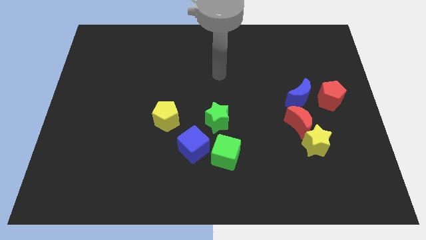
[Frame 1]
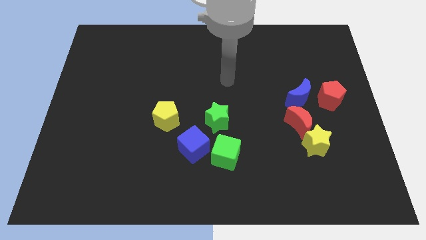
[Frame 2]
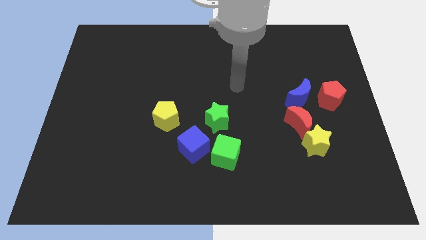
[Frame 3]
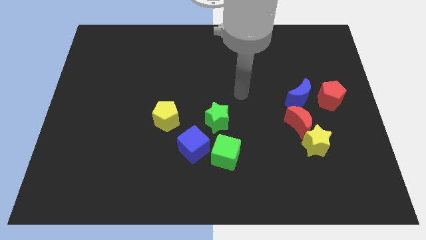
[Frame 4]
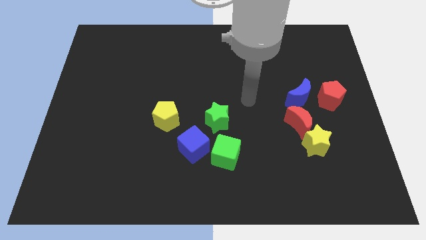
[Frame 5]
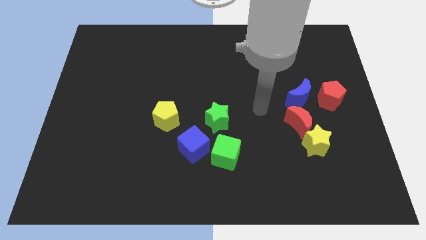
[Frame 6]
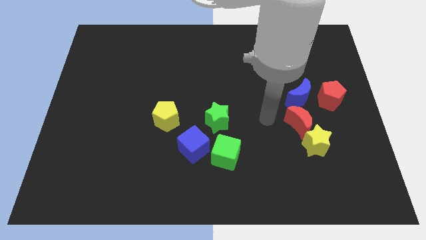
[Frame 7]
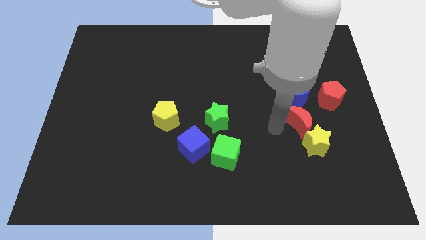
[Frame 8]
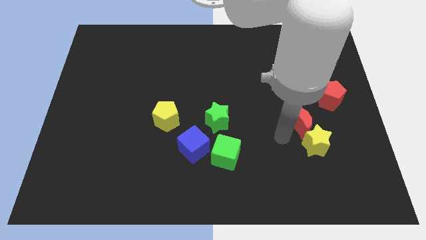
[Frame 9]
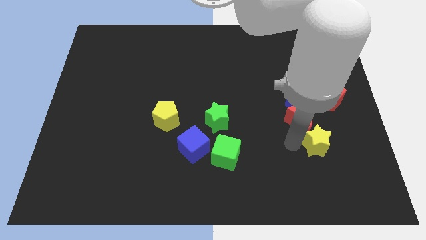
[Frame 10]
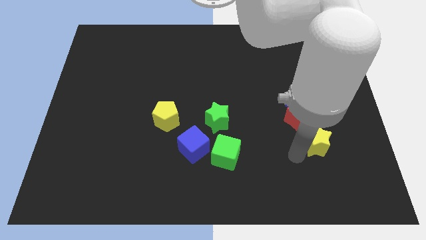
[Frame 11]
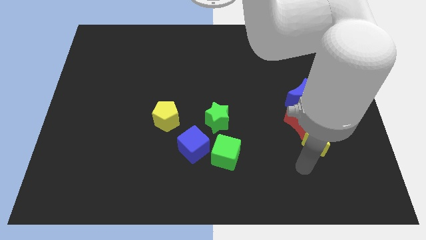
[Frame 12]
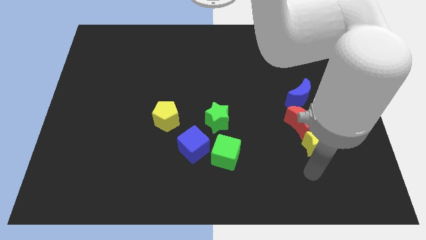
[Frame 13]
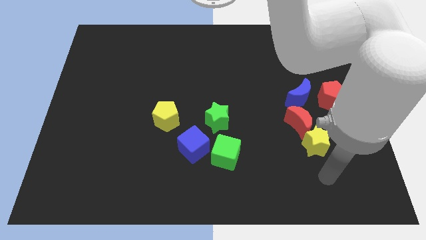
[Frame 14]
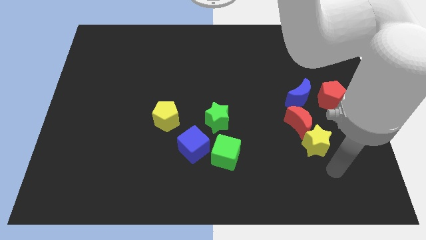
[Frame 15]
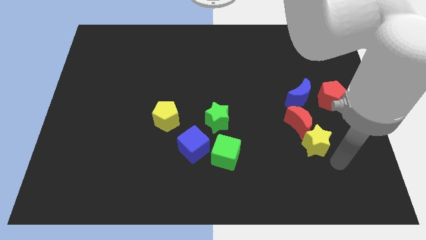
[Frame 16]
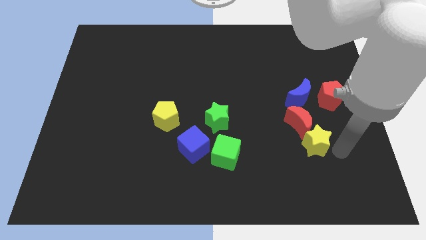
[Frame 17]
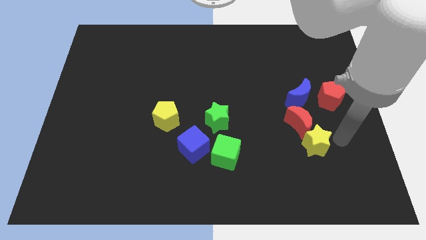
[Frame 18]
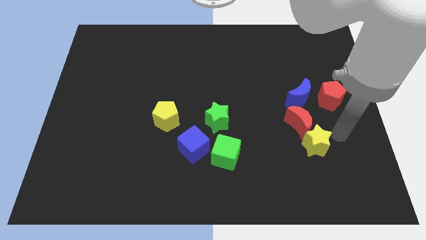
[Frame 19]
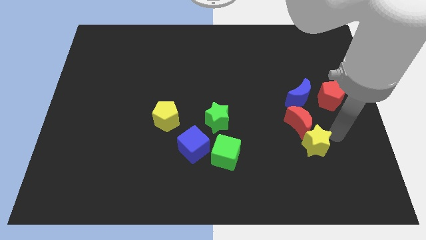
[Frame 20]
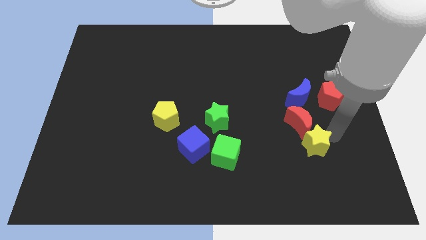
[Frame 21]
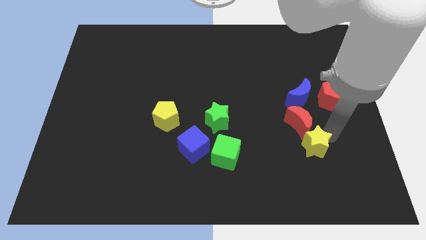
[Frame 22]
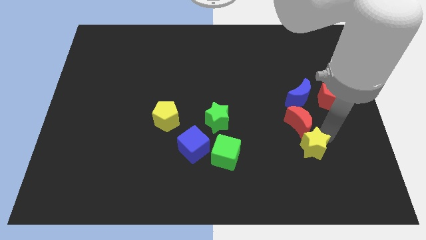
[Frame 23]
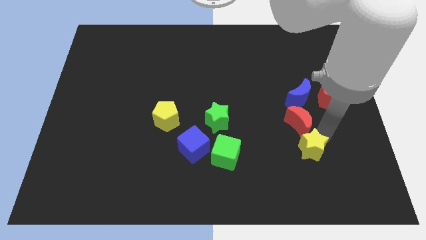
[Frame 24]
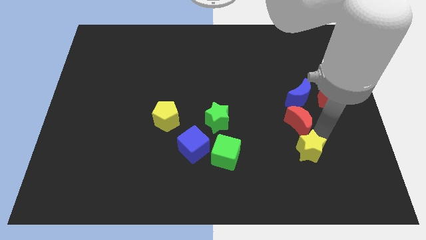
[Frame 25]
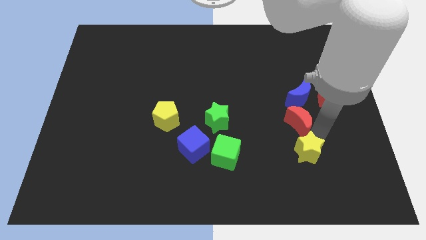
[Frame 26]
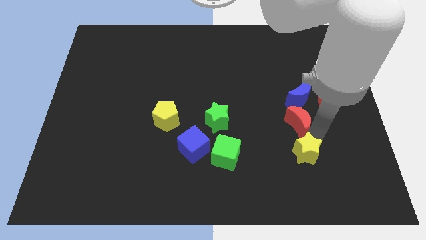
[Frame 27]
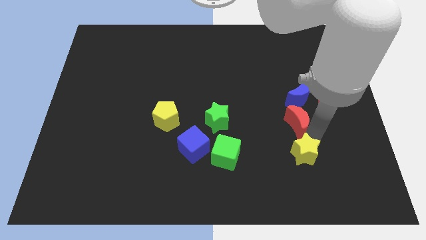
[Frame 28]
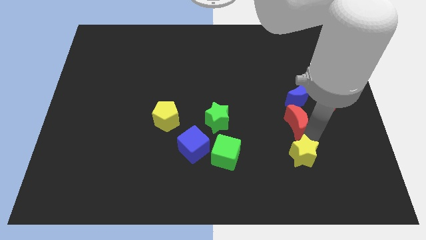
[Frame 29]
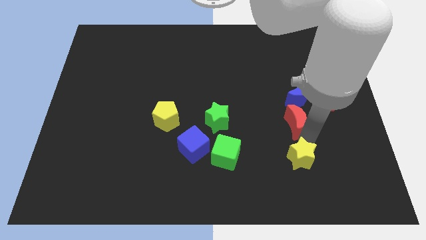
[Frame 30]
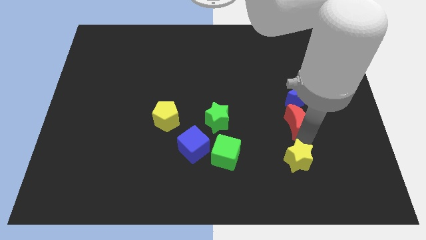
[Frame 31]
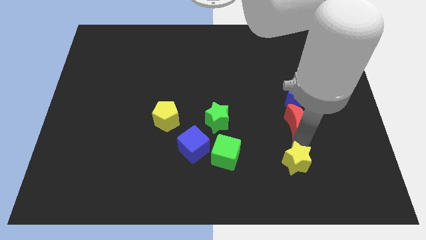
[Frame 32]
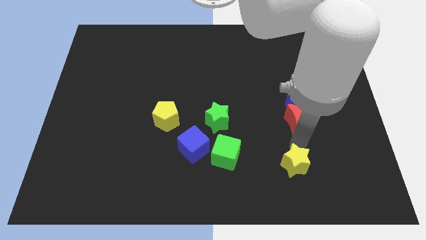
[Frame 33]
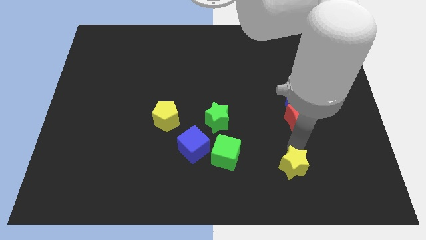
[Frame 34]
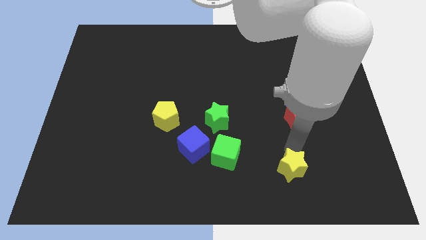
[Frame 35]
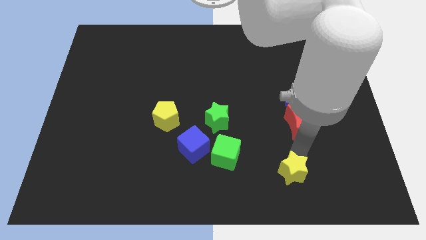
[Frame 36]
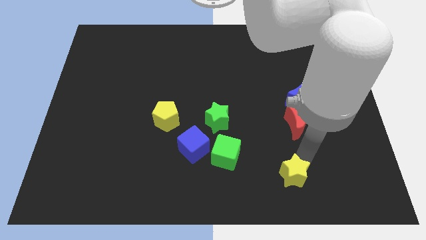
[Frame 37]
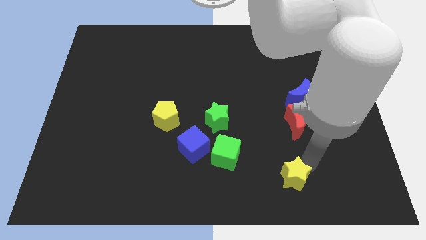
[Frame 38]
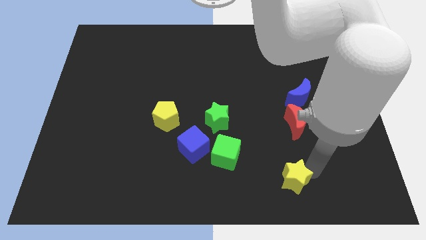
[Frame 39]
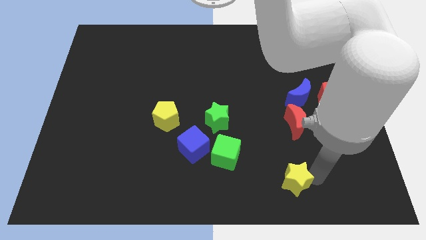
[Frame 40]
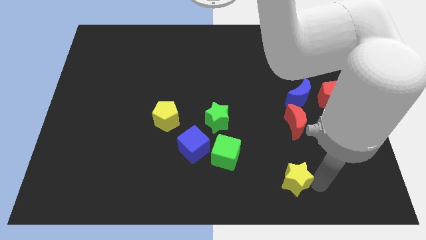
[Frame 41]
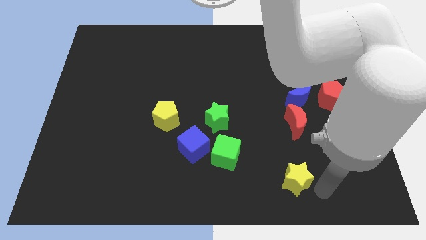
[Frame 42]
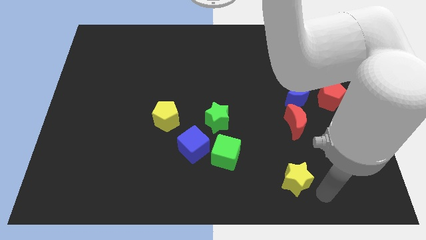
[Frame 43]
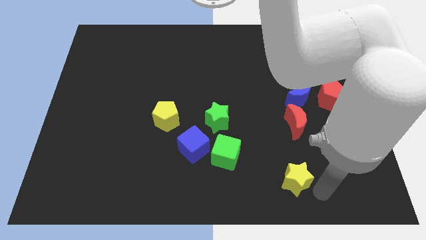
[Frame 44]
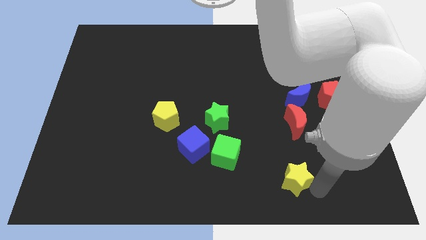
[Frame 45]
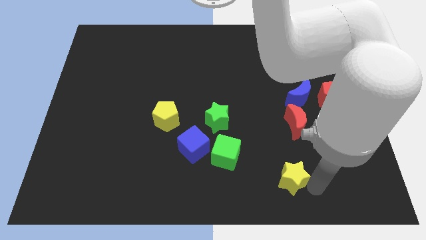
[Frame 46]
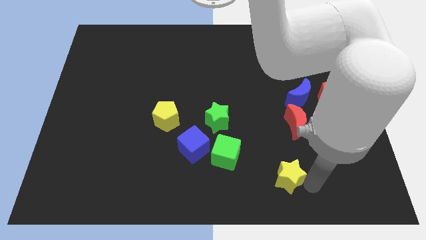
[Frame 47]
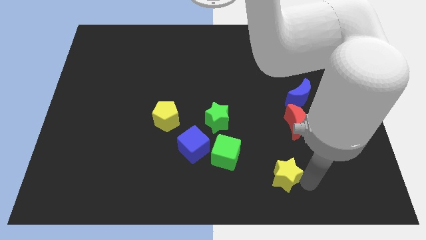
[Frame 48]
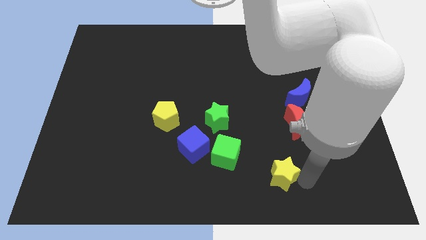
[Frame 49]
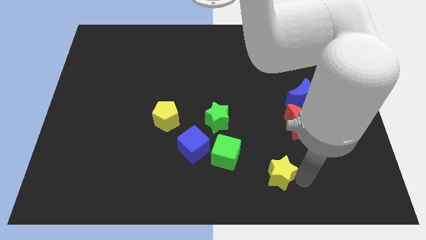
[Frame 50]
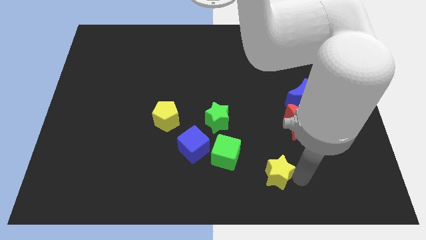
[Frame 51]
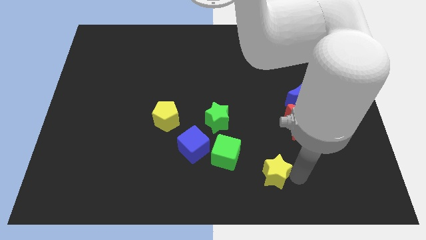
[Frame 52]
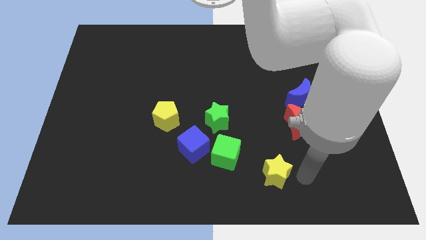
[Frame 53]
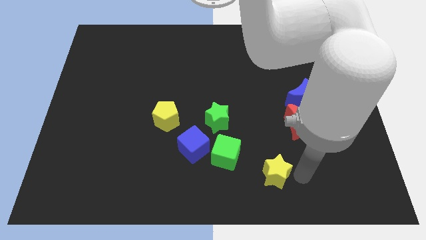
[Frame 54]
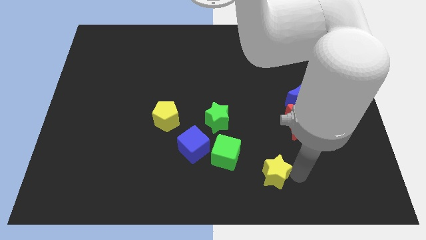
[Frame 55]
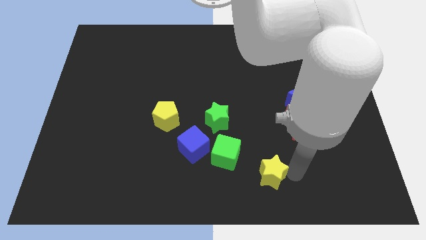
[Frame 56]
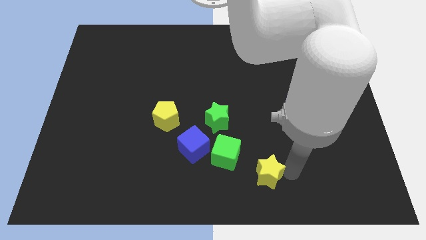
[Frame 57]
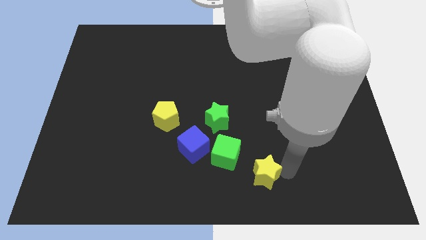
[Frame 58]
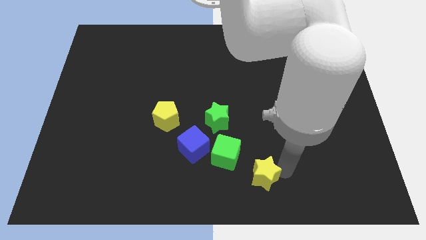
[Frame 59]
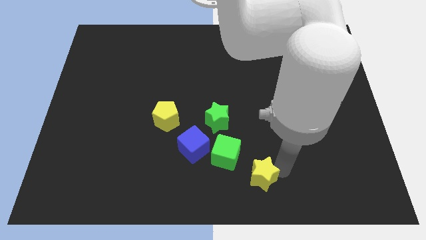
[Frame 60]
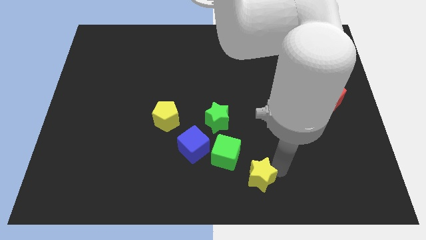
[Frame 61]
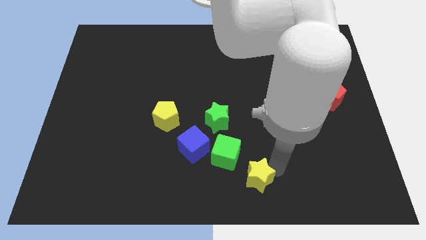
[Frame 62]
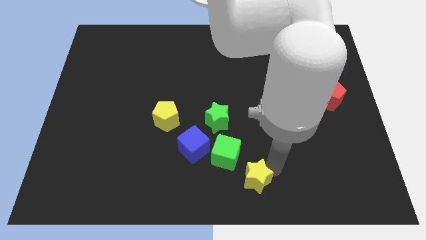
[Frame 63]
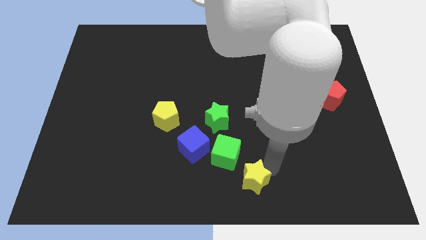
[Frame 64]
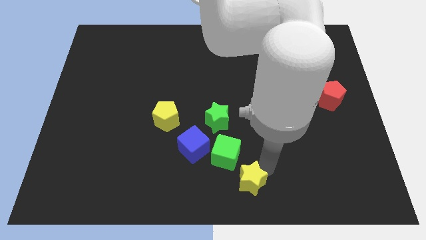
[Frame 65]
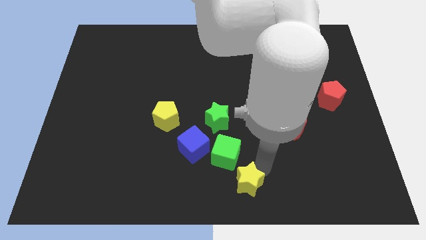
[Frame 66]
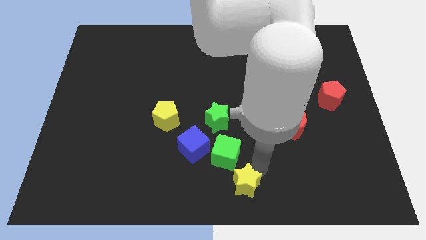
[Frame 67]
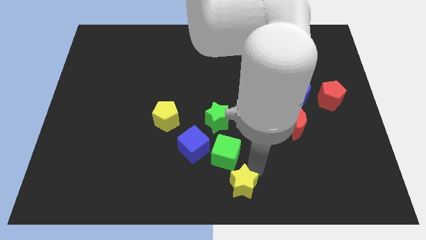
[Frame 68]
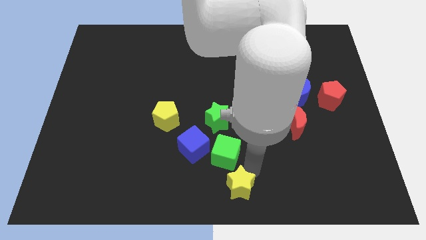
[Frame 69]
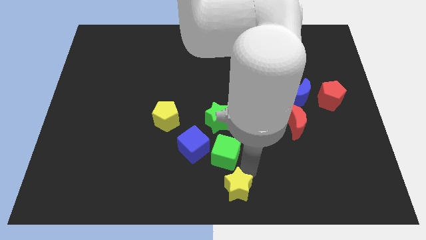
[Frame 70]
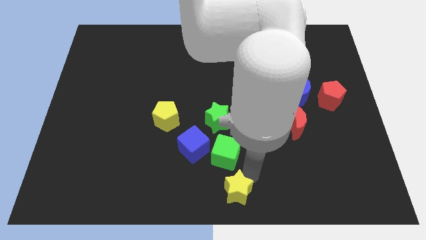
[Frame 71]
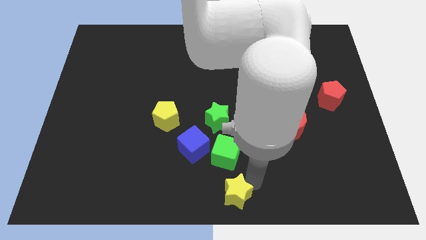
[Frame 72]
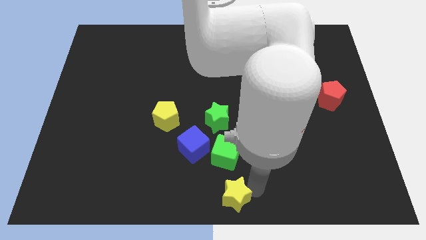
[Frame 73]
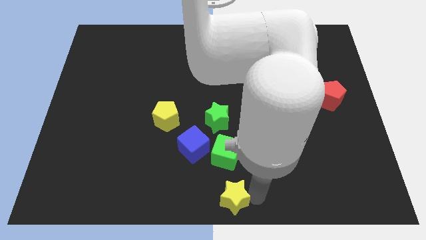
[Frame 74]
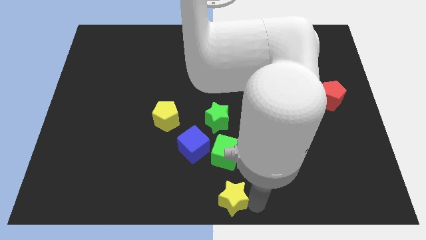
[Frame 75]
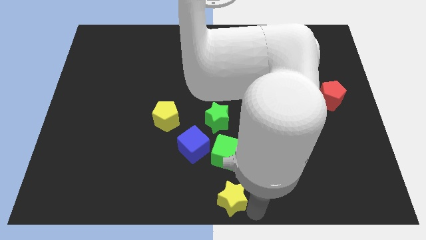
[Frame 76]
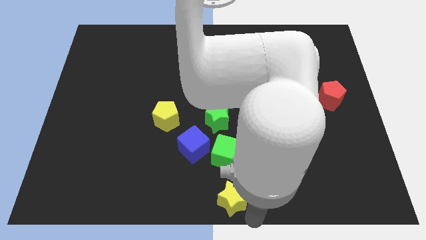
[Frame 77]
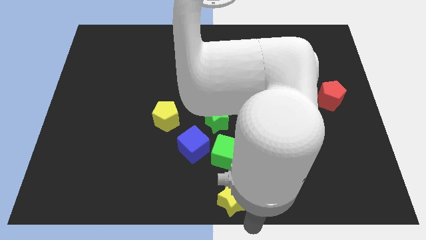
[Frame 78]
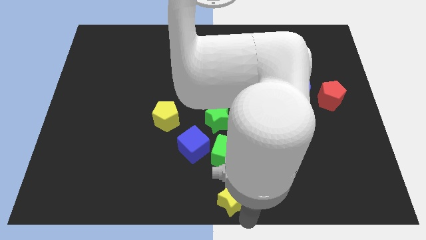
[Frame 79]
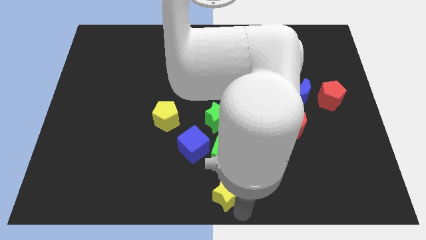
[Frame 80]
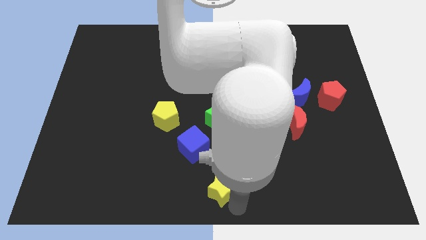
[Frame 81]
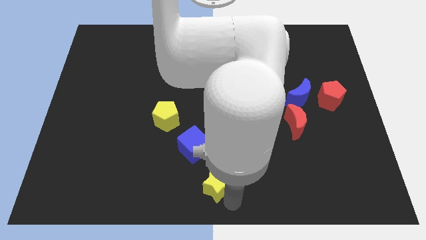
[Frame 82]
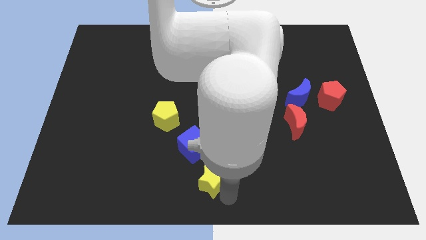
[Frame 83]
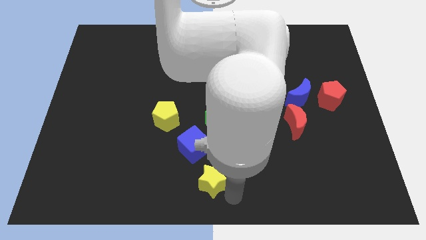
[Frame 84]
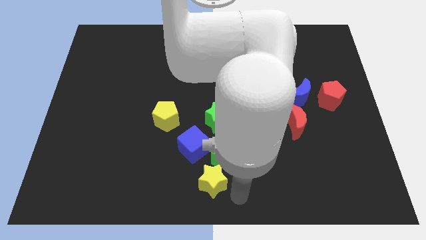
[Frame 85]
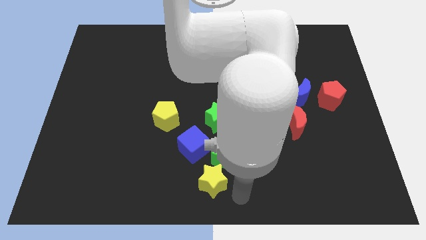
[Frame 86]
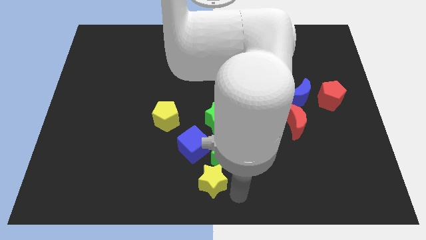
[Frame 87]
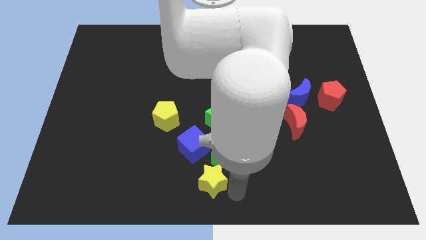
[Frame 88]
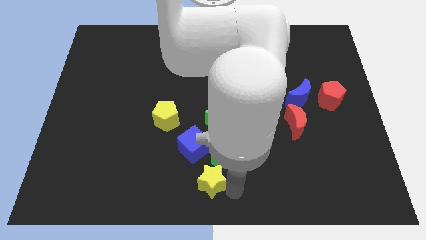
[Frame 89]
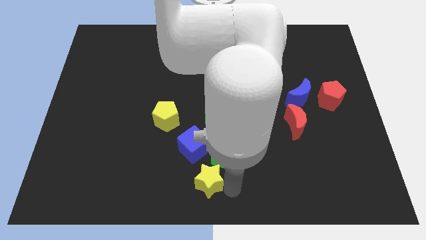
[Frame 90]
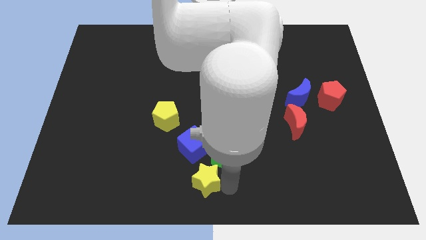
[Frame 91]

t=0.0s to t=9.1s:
slide the yellow star left
